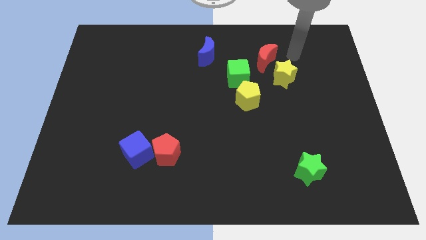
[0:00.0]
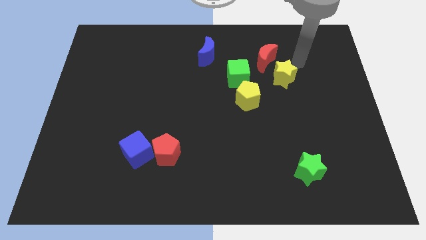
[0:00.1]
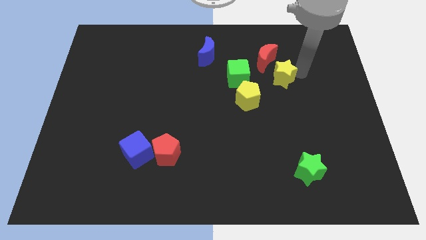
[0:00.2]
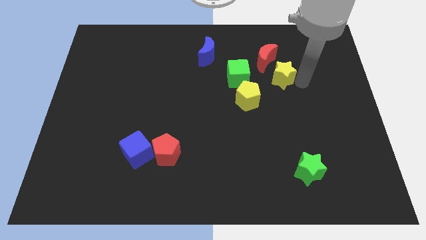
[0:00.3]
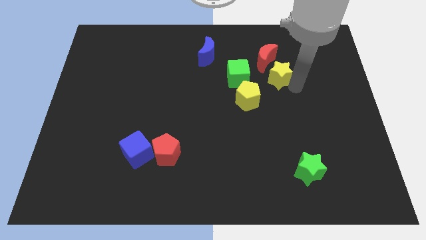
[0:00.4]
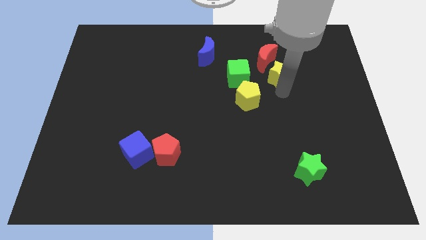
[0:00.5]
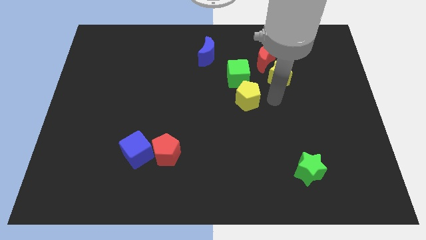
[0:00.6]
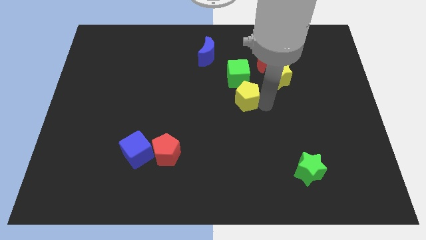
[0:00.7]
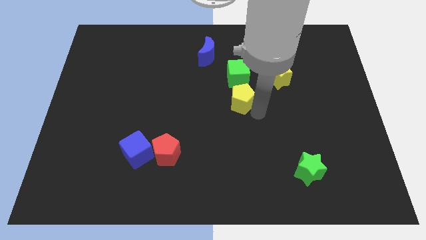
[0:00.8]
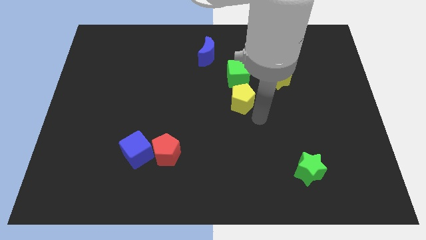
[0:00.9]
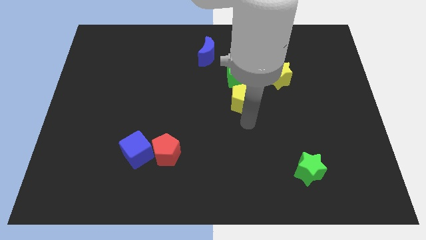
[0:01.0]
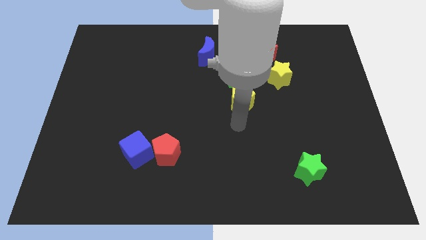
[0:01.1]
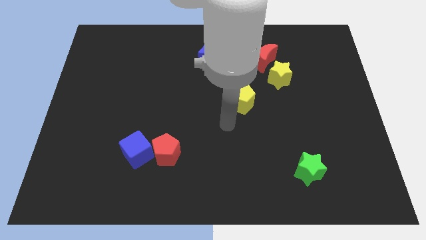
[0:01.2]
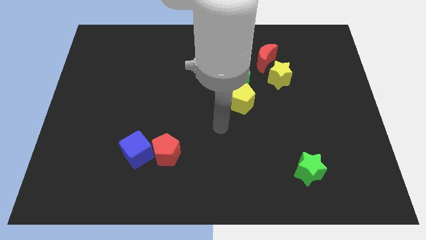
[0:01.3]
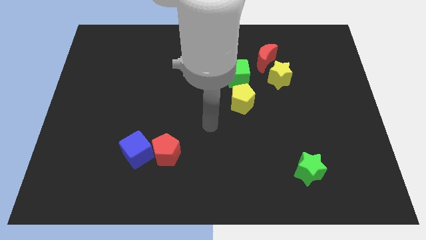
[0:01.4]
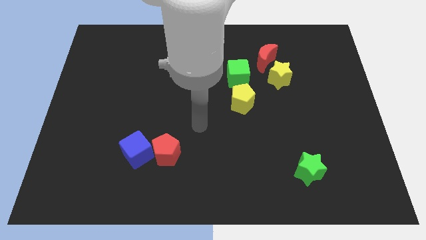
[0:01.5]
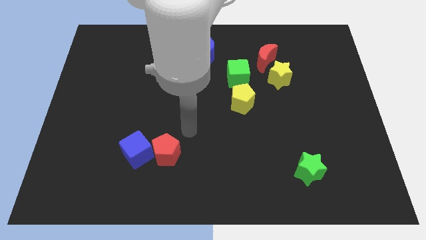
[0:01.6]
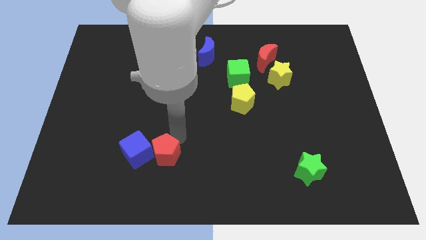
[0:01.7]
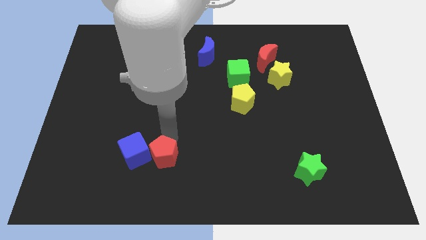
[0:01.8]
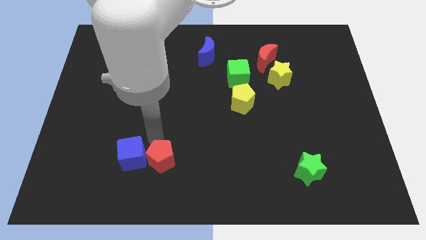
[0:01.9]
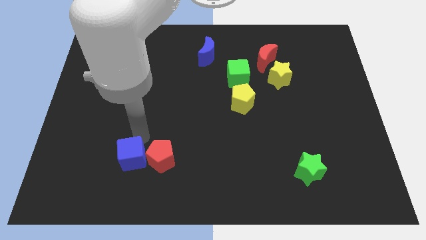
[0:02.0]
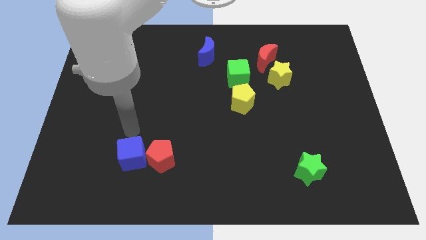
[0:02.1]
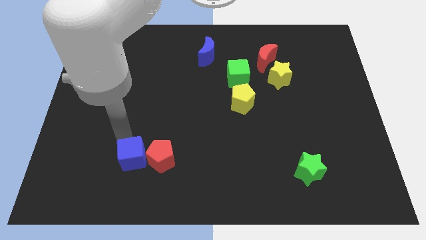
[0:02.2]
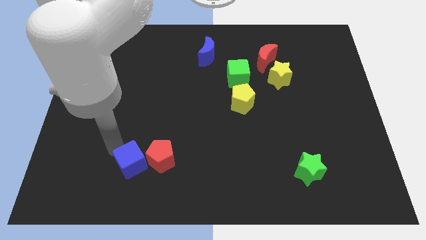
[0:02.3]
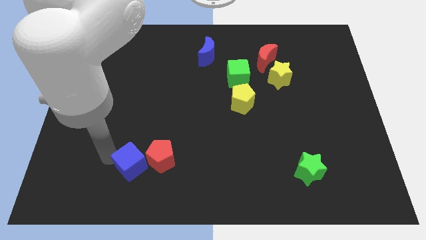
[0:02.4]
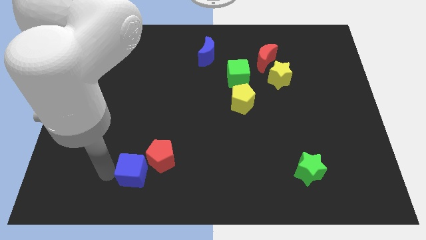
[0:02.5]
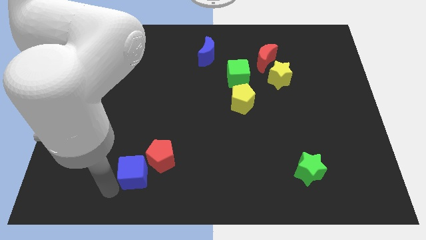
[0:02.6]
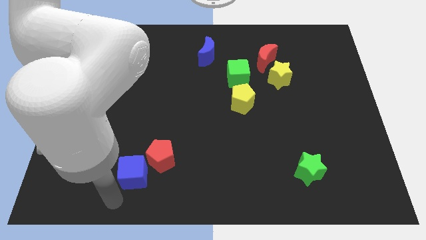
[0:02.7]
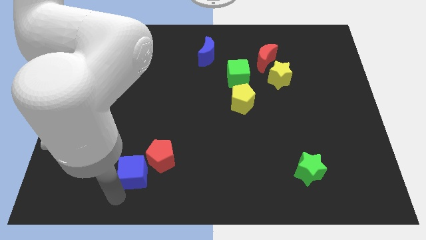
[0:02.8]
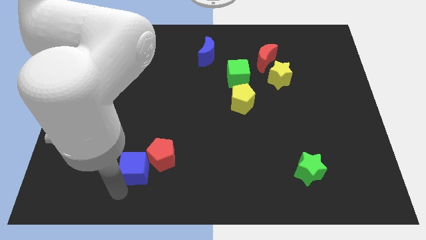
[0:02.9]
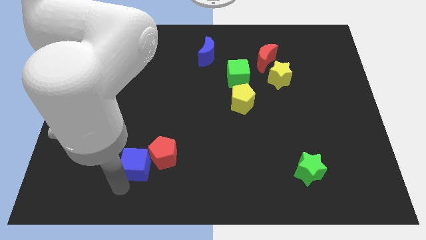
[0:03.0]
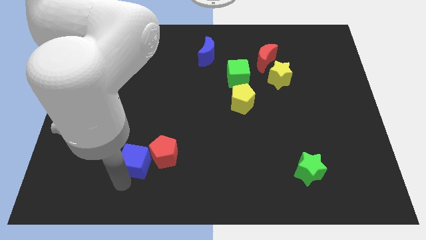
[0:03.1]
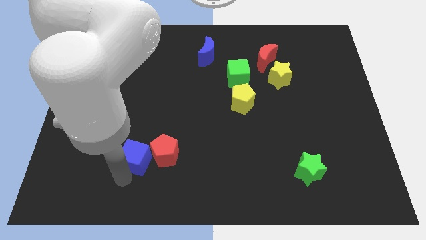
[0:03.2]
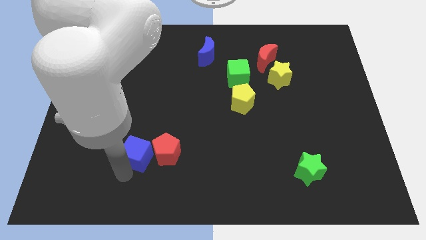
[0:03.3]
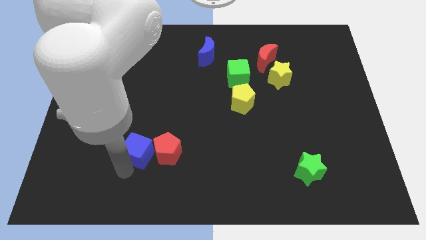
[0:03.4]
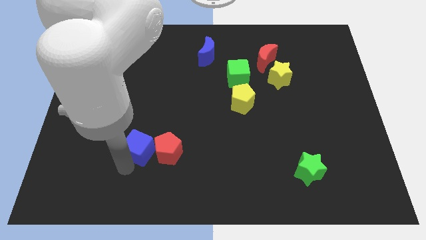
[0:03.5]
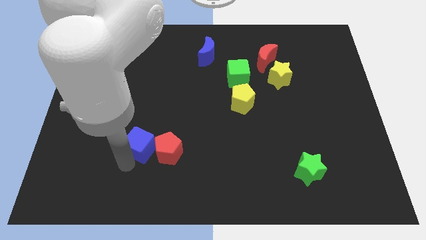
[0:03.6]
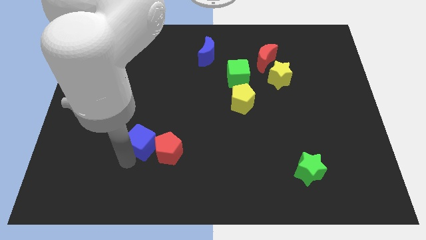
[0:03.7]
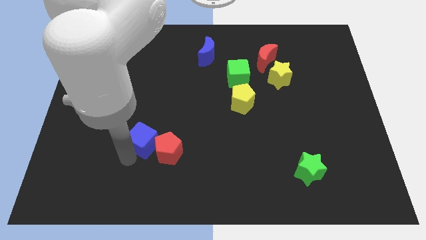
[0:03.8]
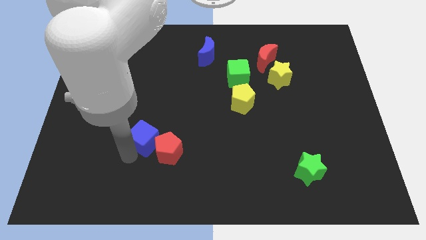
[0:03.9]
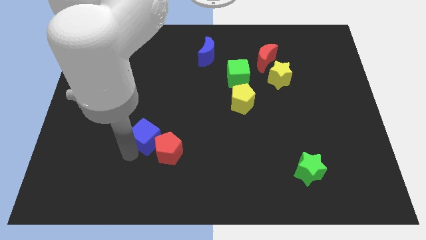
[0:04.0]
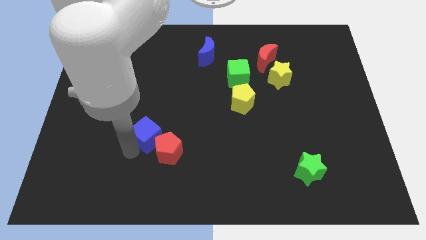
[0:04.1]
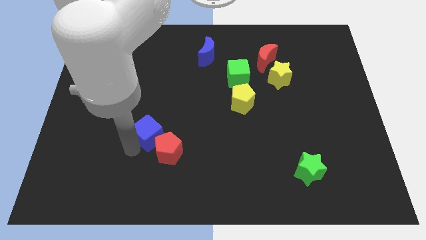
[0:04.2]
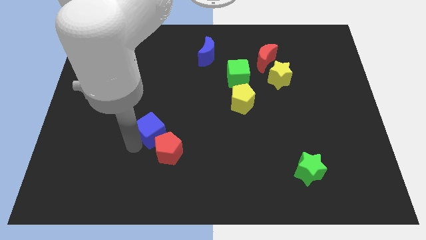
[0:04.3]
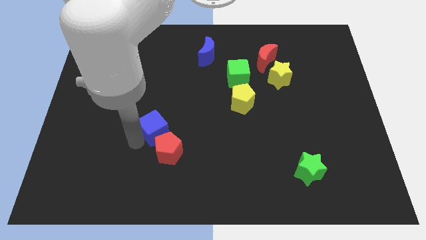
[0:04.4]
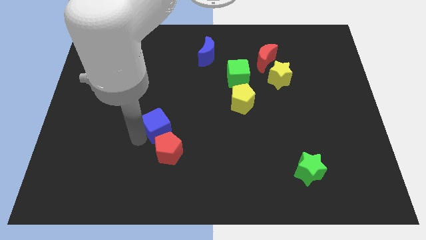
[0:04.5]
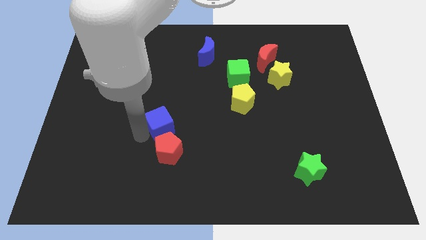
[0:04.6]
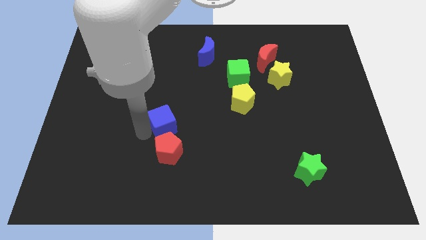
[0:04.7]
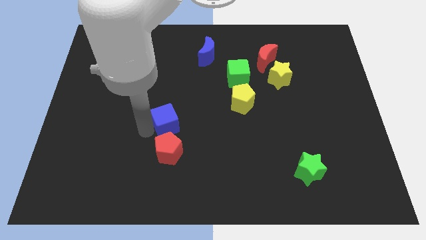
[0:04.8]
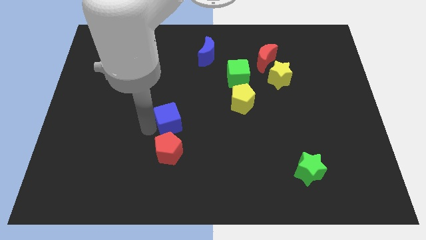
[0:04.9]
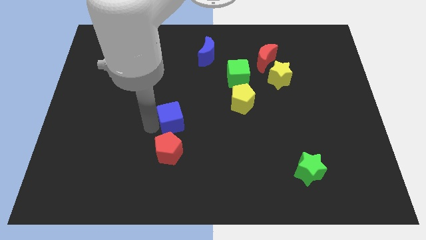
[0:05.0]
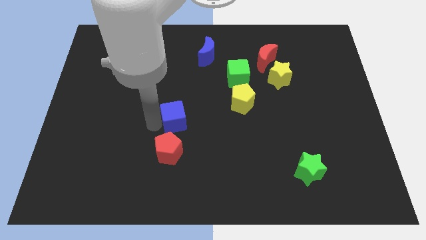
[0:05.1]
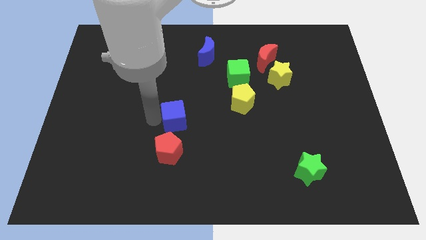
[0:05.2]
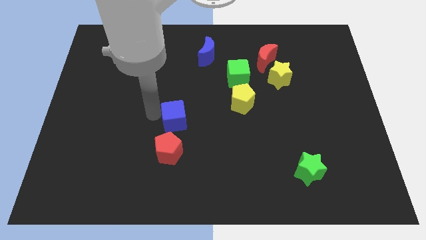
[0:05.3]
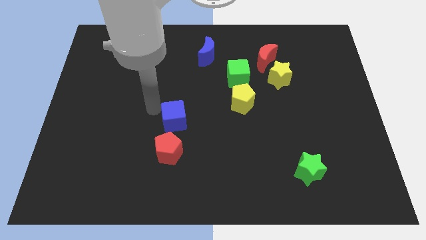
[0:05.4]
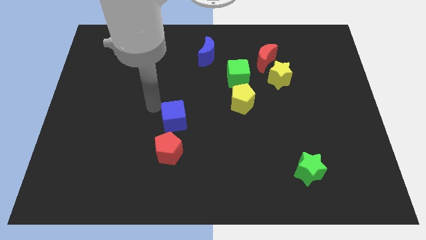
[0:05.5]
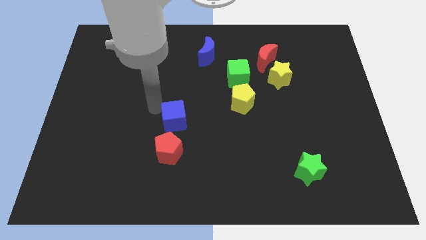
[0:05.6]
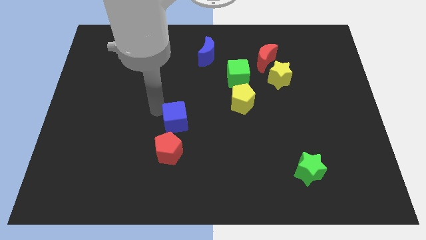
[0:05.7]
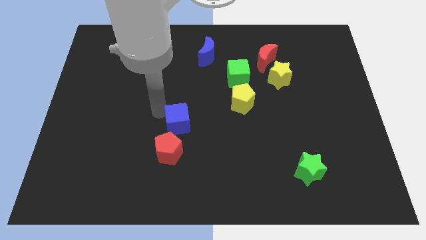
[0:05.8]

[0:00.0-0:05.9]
slide the blue cube diagonally up and to the right of the red pentagon

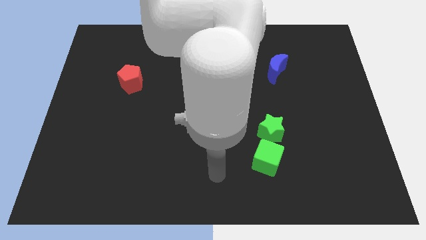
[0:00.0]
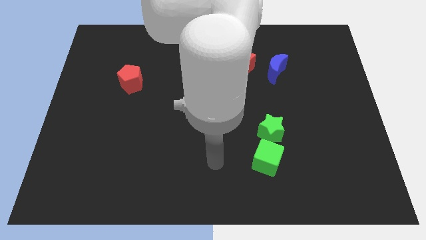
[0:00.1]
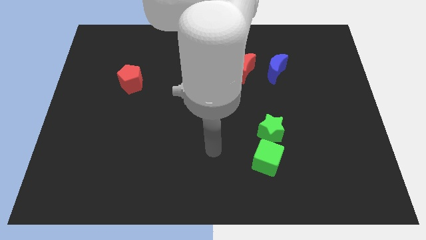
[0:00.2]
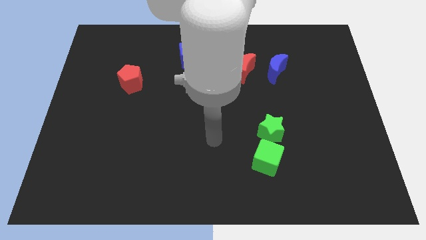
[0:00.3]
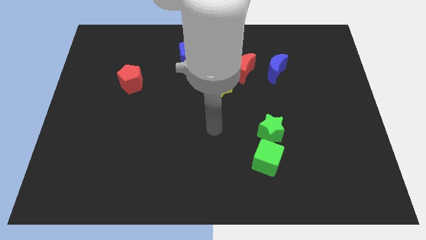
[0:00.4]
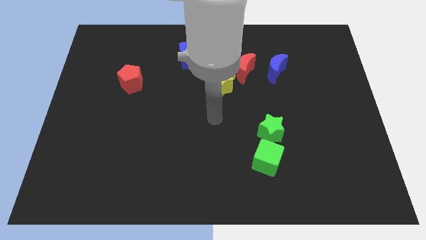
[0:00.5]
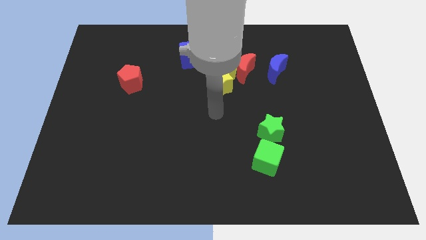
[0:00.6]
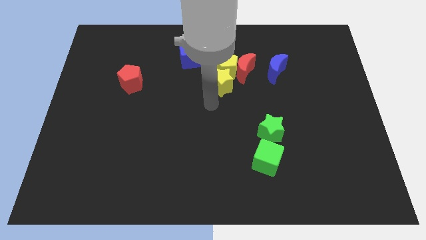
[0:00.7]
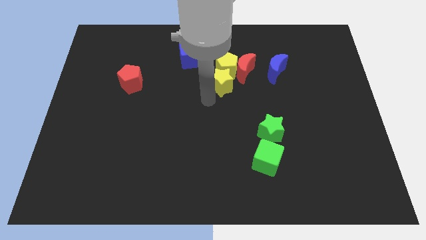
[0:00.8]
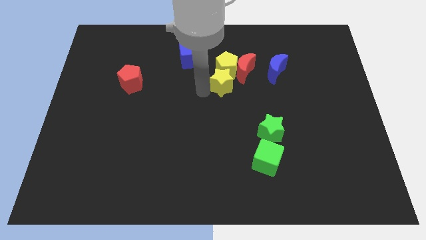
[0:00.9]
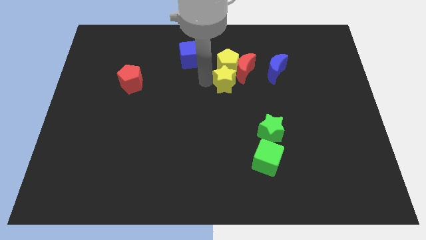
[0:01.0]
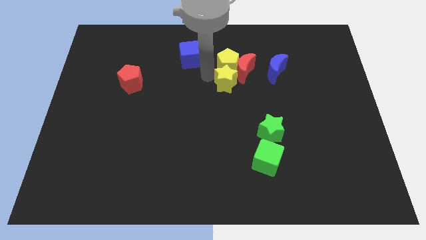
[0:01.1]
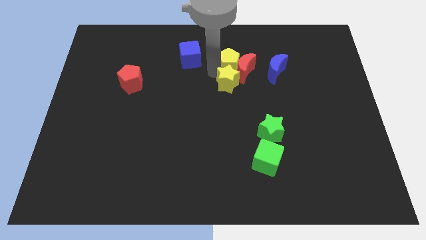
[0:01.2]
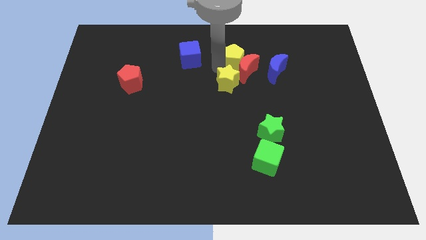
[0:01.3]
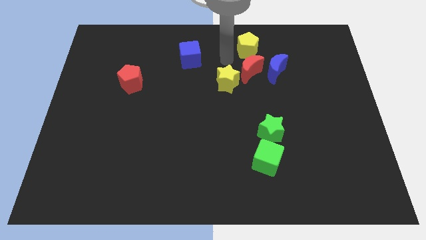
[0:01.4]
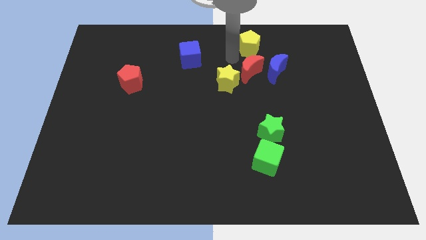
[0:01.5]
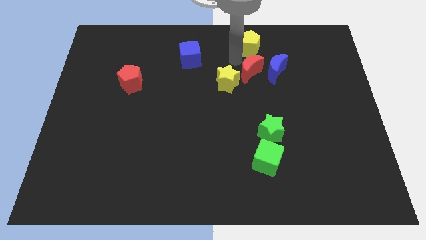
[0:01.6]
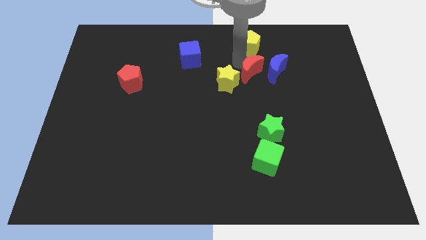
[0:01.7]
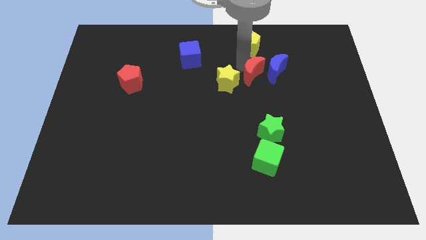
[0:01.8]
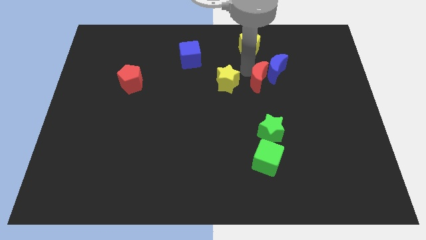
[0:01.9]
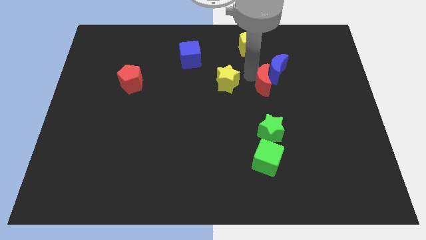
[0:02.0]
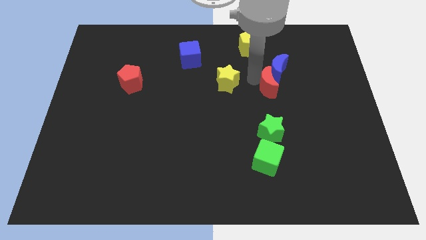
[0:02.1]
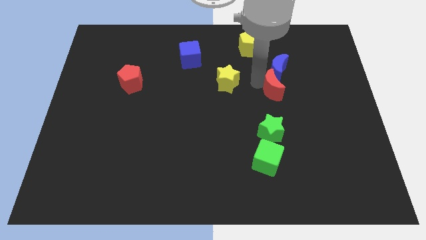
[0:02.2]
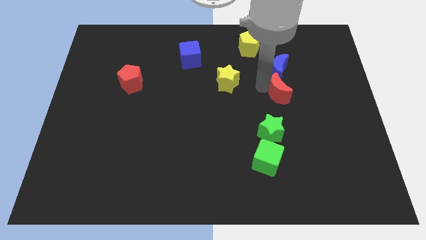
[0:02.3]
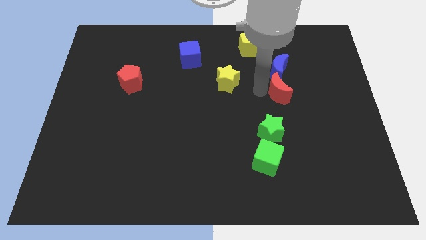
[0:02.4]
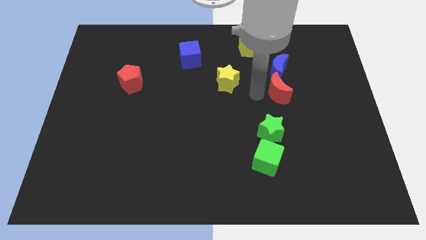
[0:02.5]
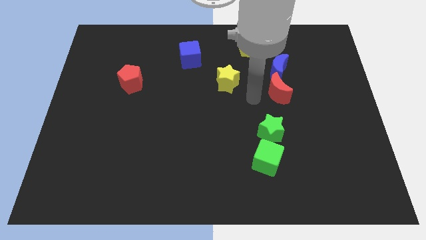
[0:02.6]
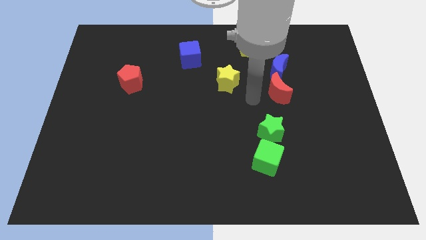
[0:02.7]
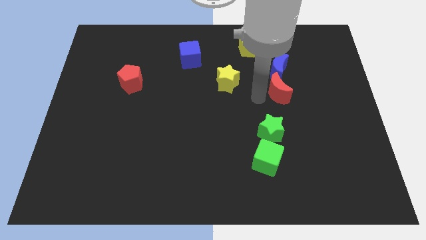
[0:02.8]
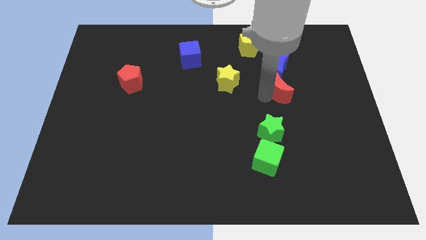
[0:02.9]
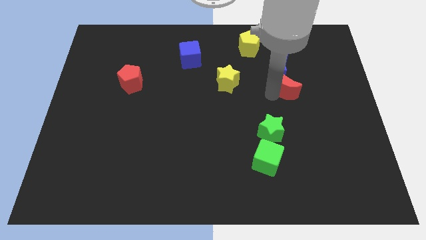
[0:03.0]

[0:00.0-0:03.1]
slide the red moon diagonally down and to the right of the blue moon
